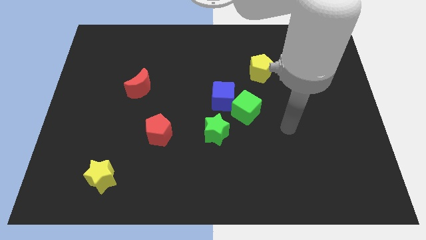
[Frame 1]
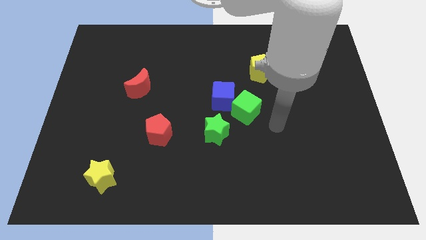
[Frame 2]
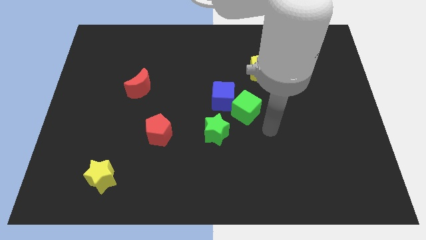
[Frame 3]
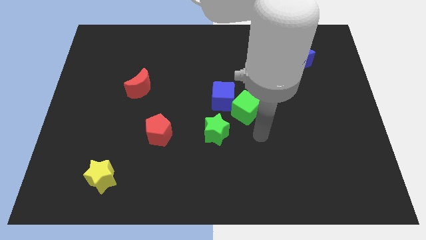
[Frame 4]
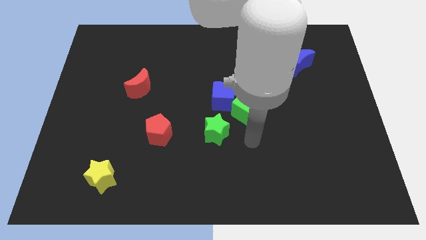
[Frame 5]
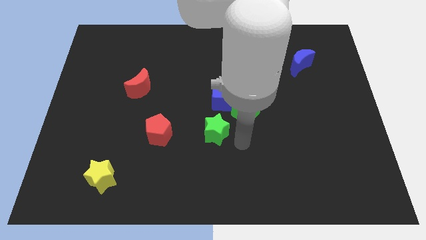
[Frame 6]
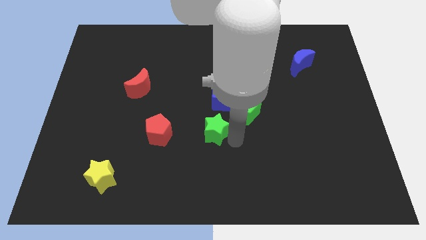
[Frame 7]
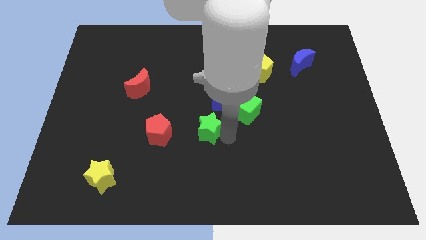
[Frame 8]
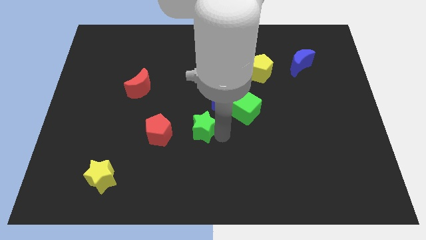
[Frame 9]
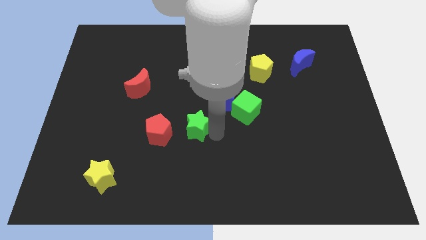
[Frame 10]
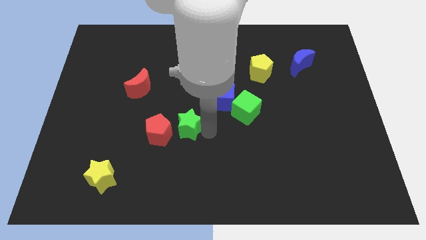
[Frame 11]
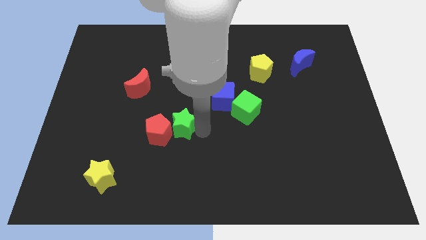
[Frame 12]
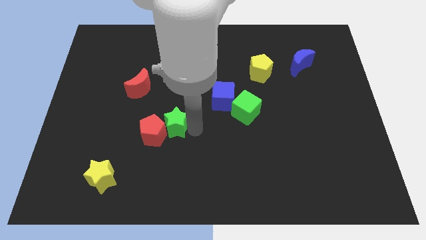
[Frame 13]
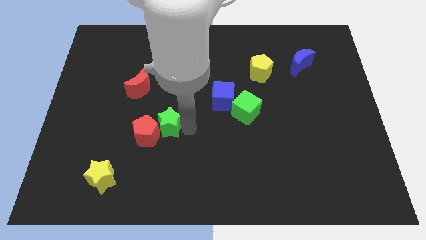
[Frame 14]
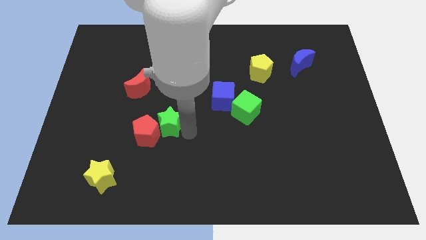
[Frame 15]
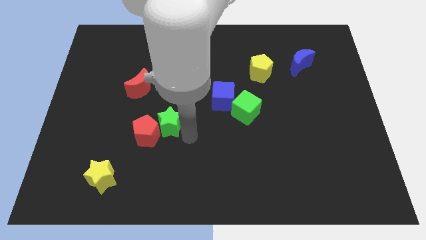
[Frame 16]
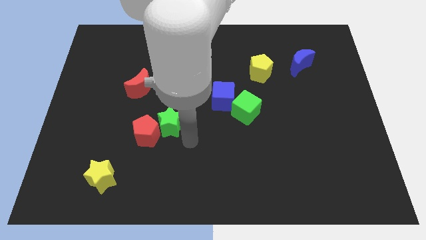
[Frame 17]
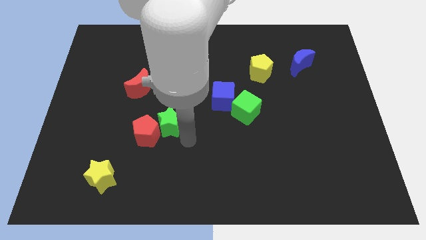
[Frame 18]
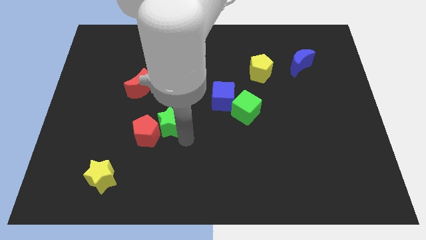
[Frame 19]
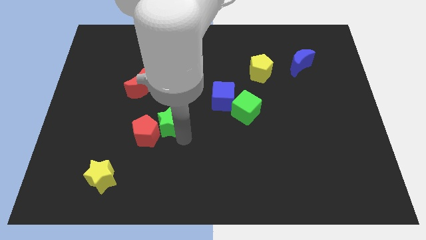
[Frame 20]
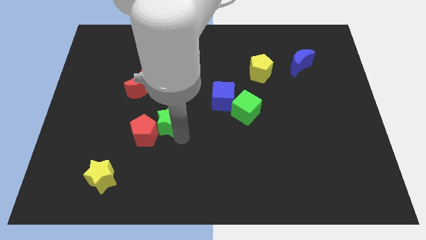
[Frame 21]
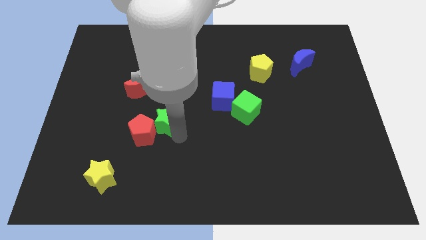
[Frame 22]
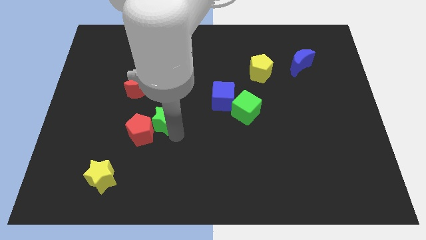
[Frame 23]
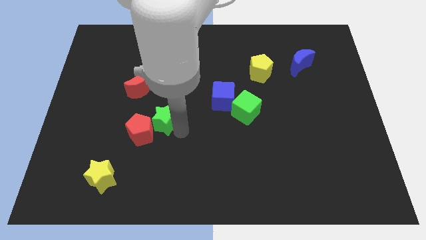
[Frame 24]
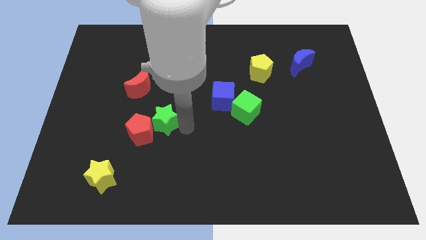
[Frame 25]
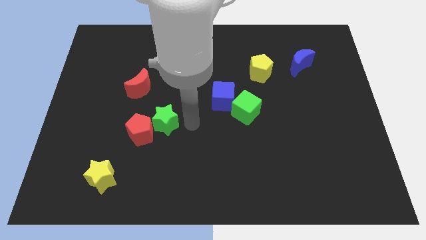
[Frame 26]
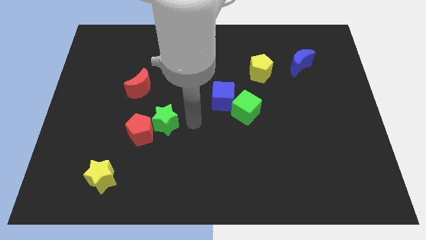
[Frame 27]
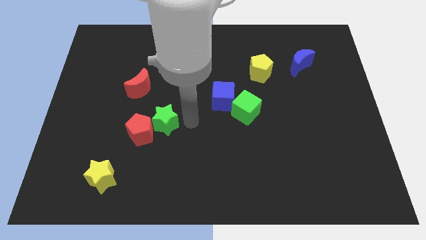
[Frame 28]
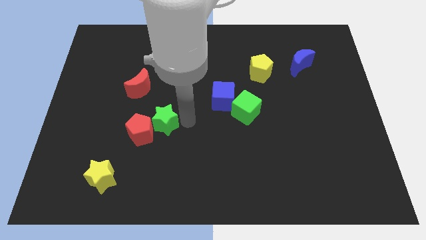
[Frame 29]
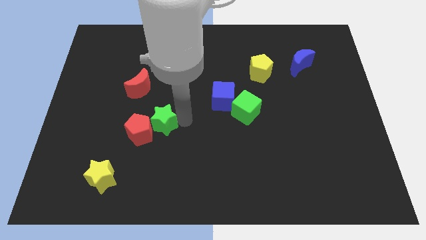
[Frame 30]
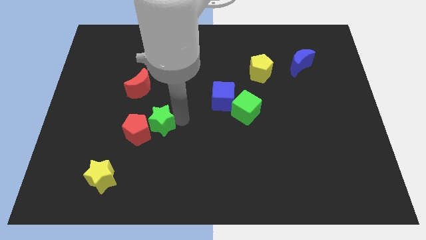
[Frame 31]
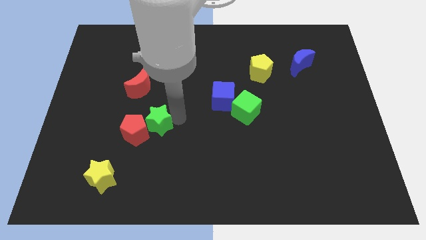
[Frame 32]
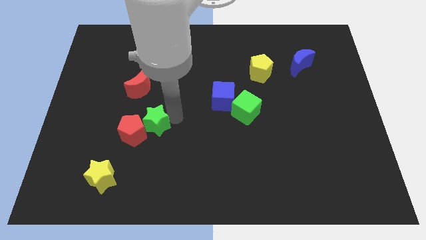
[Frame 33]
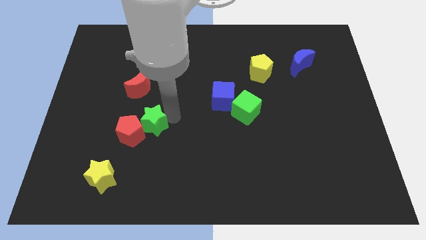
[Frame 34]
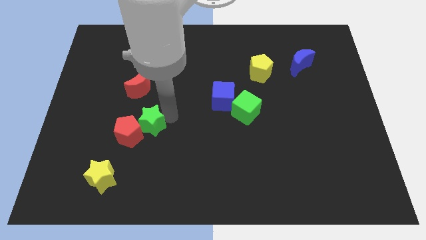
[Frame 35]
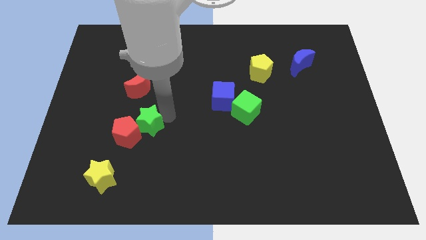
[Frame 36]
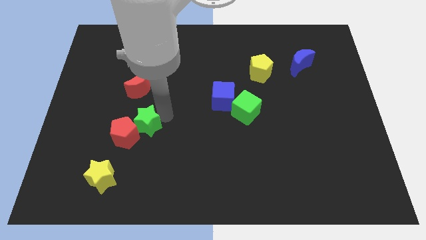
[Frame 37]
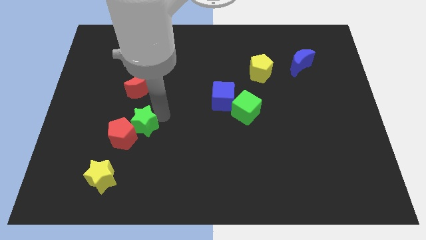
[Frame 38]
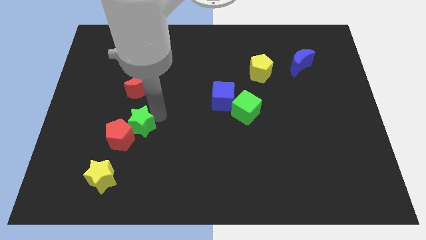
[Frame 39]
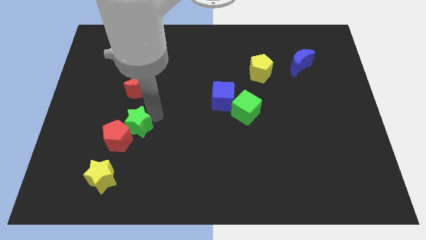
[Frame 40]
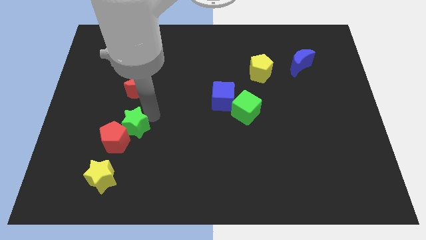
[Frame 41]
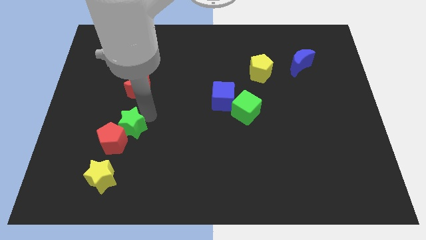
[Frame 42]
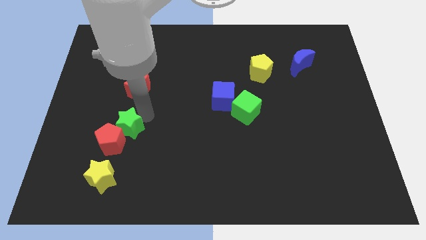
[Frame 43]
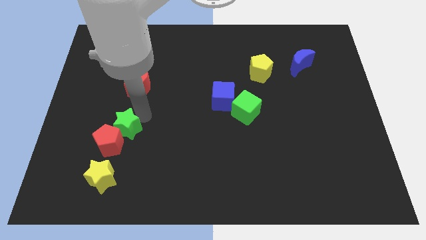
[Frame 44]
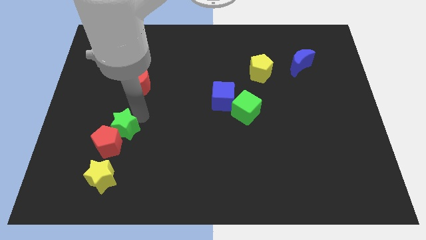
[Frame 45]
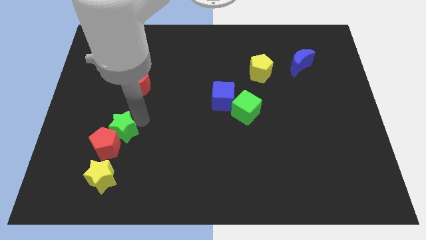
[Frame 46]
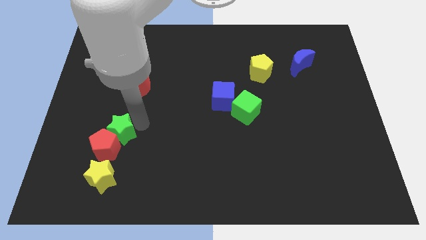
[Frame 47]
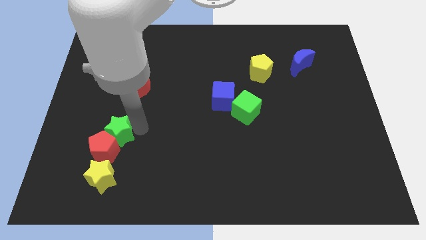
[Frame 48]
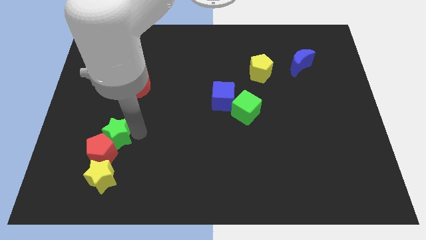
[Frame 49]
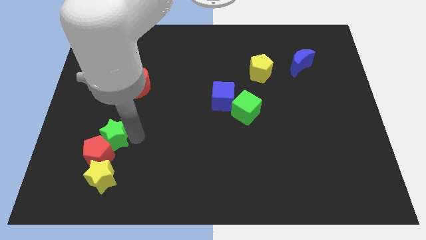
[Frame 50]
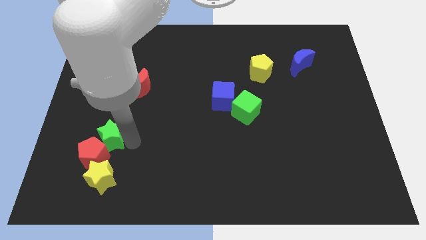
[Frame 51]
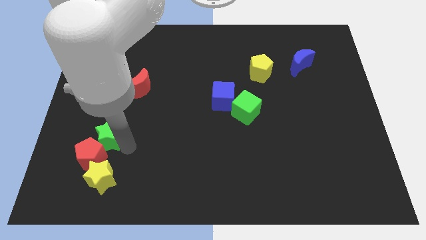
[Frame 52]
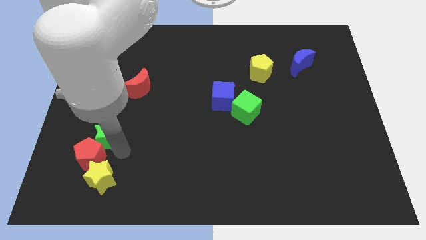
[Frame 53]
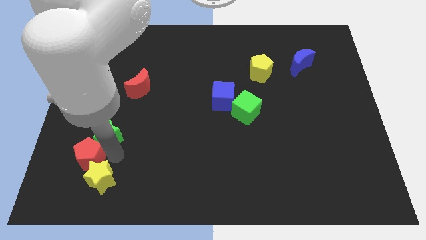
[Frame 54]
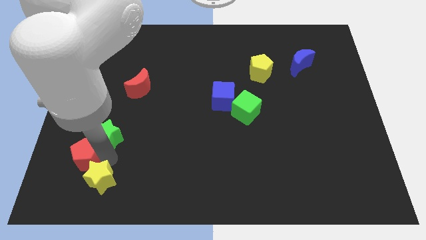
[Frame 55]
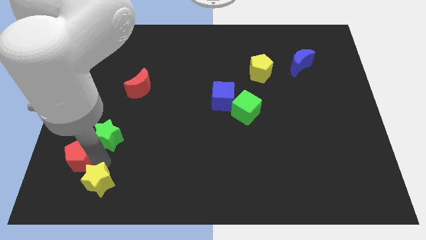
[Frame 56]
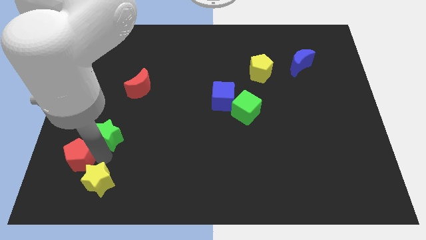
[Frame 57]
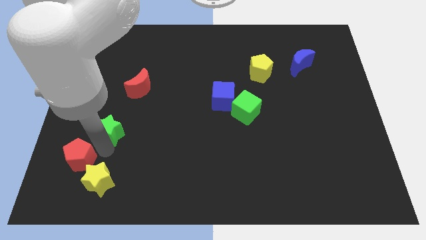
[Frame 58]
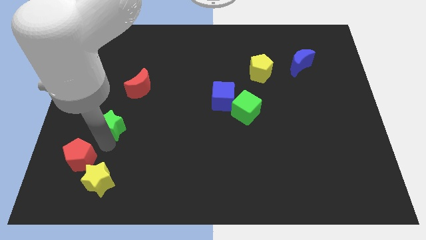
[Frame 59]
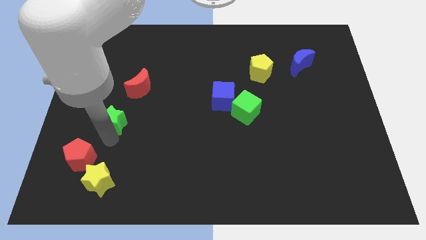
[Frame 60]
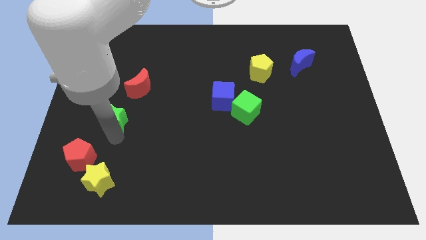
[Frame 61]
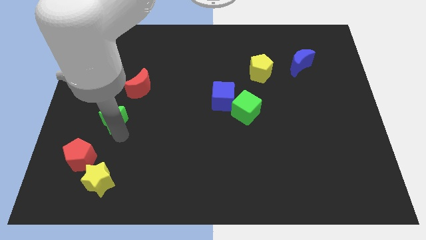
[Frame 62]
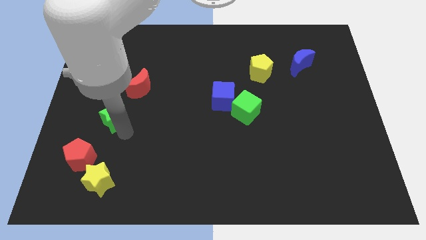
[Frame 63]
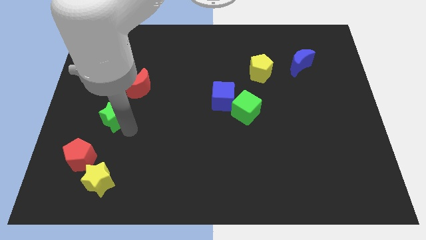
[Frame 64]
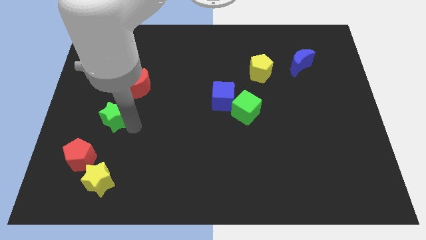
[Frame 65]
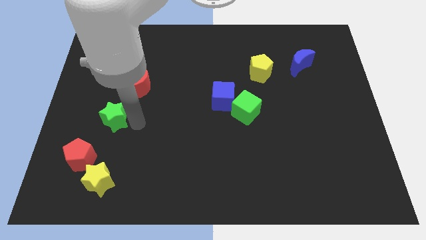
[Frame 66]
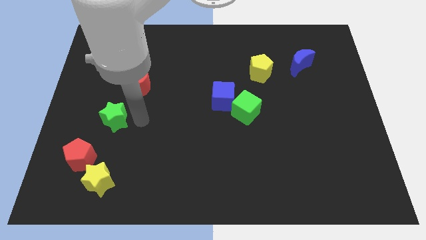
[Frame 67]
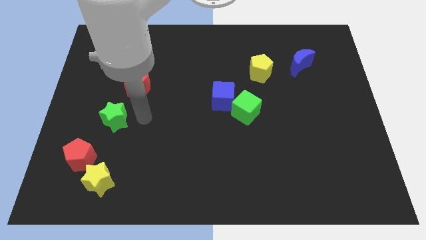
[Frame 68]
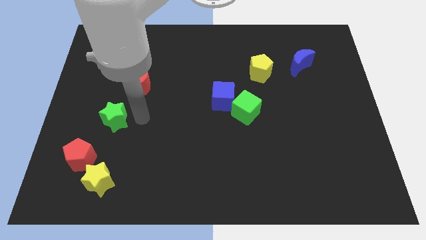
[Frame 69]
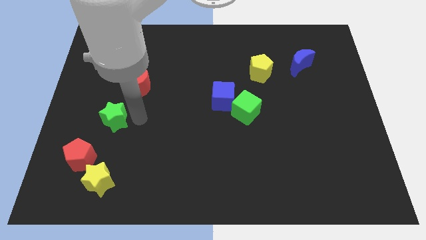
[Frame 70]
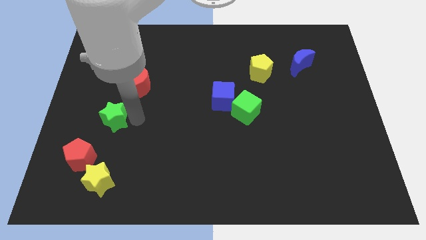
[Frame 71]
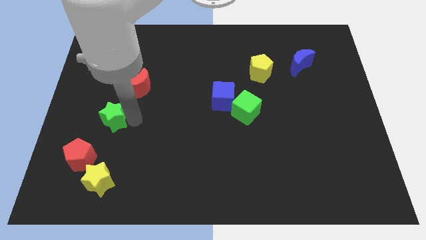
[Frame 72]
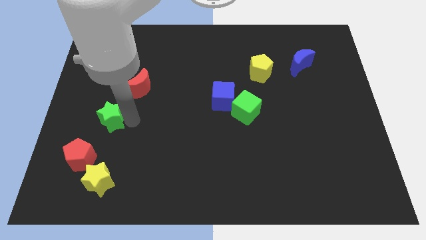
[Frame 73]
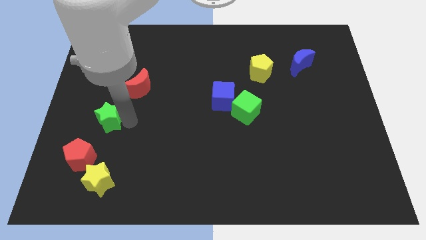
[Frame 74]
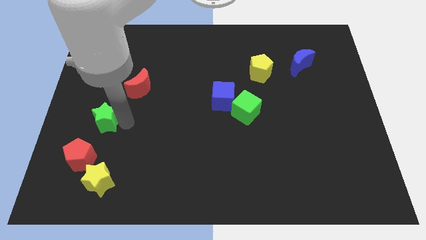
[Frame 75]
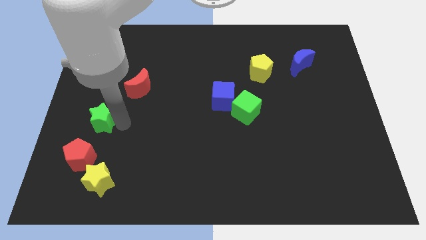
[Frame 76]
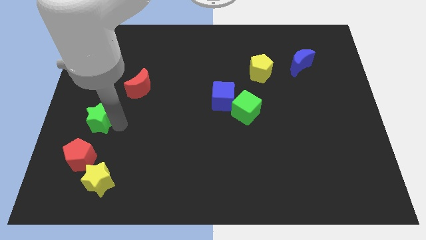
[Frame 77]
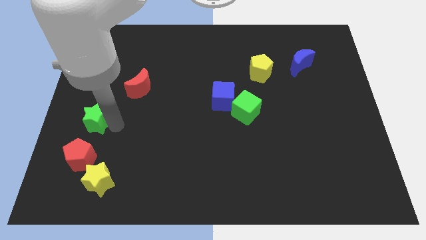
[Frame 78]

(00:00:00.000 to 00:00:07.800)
move the green star to the center left
